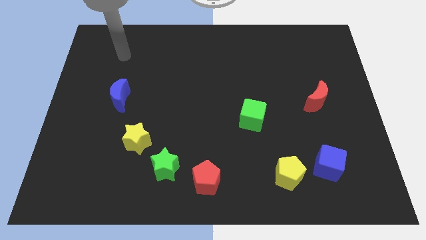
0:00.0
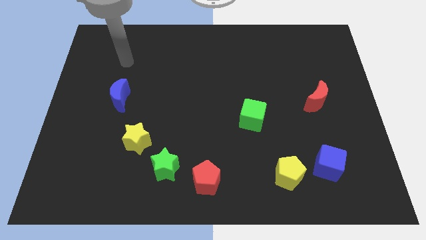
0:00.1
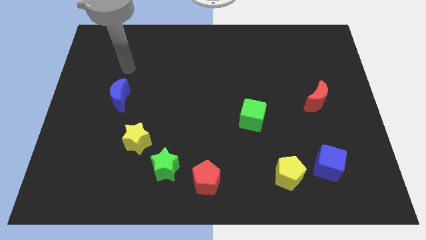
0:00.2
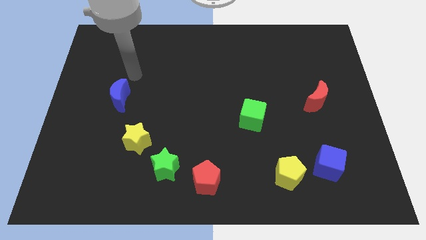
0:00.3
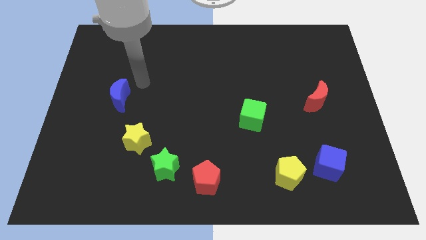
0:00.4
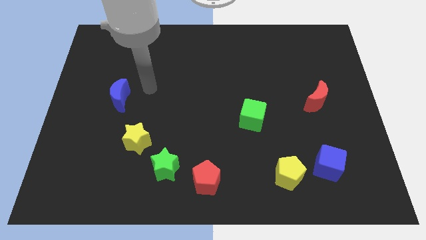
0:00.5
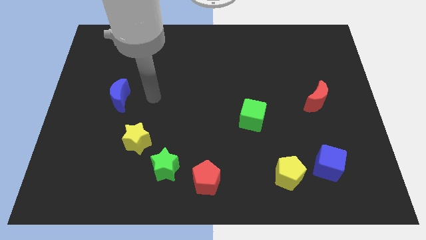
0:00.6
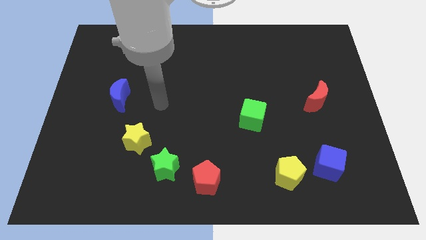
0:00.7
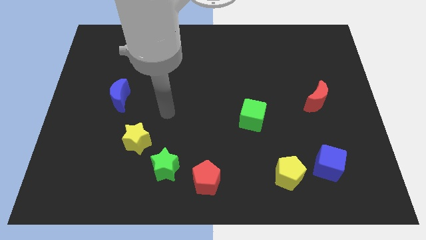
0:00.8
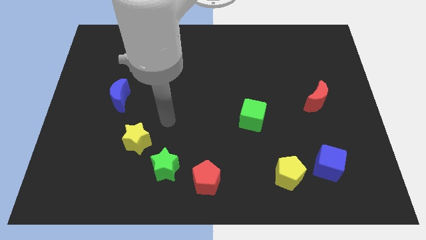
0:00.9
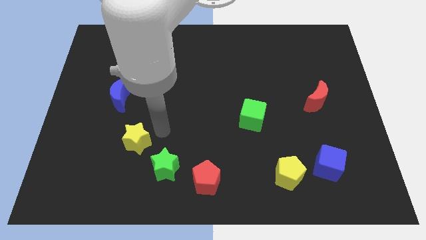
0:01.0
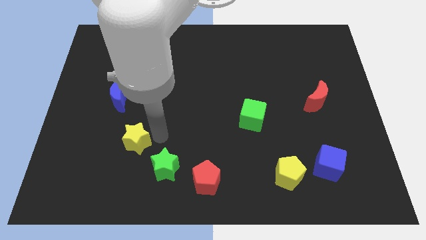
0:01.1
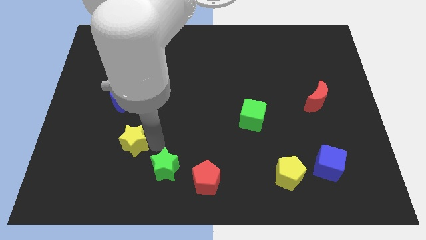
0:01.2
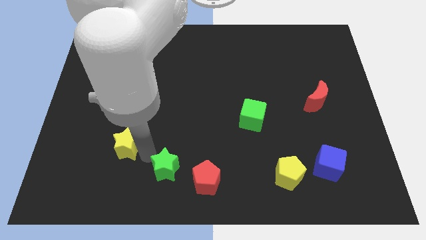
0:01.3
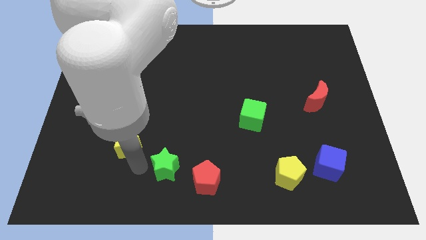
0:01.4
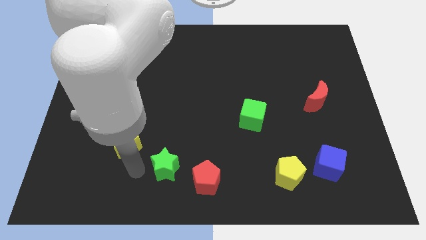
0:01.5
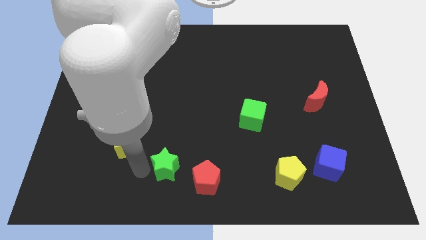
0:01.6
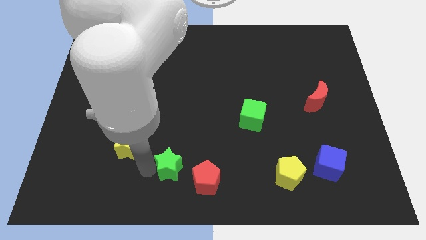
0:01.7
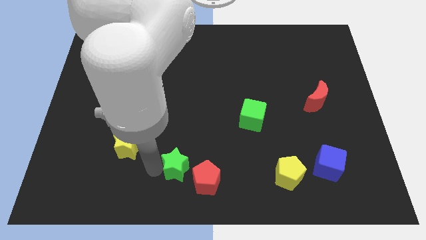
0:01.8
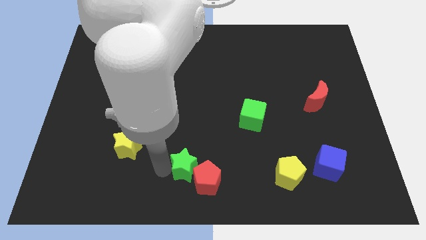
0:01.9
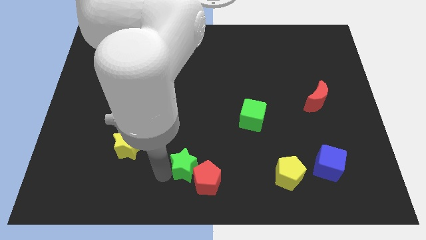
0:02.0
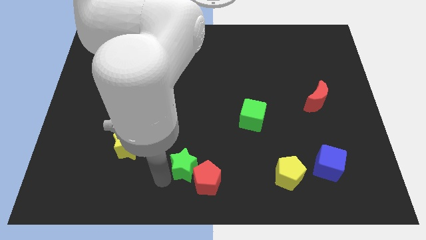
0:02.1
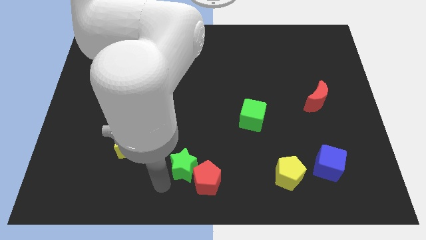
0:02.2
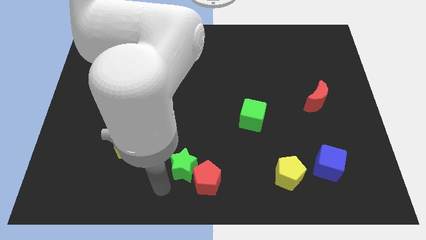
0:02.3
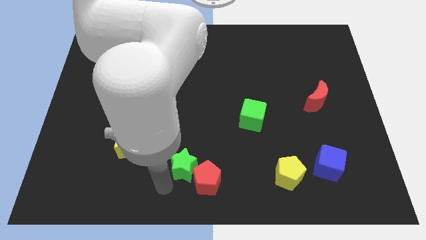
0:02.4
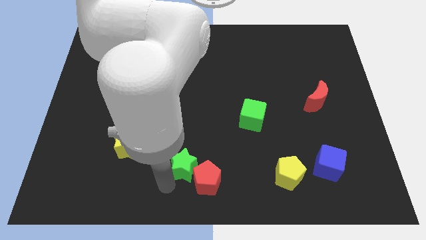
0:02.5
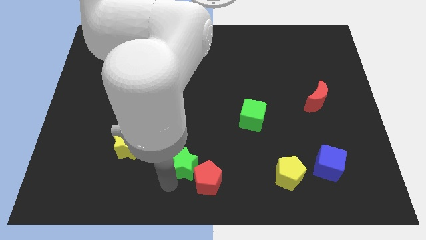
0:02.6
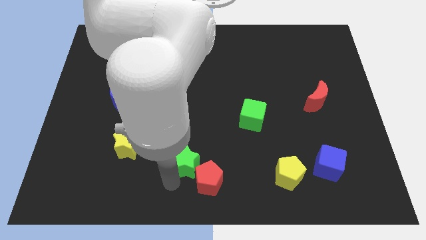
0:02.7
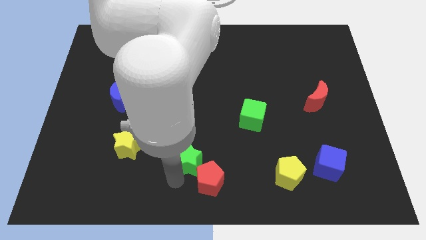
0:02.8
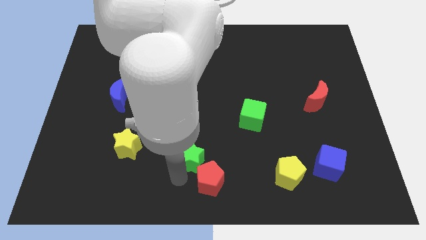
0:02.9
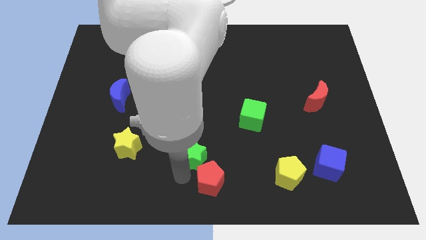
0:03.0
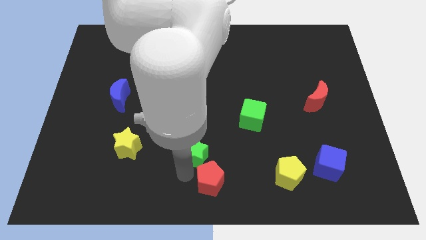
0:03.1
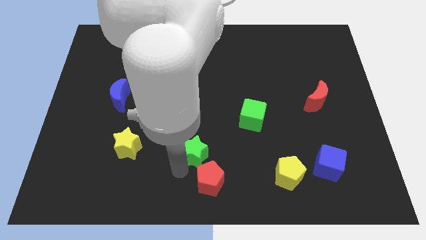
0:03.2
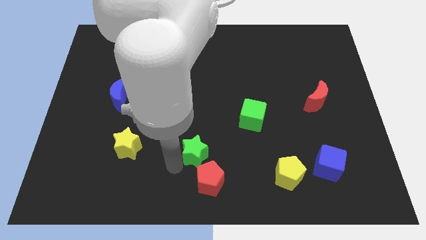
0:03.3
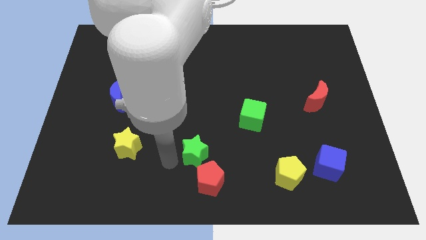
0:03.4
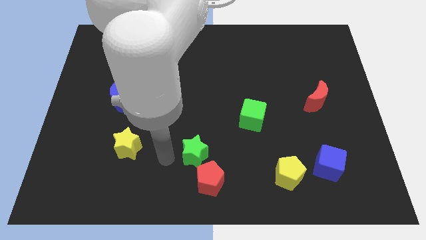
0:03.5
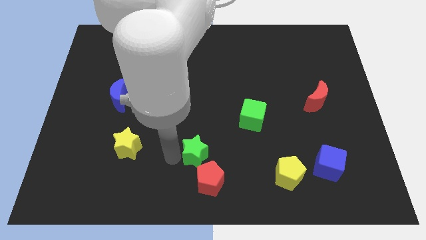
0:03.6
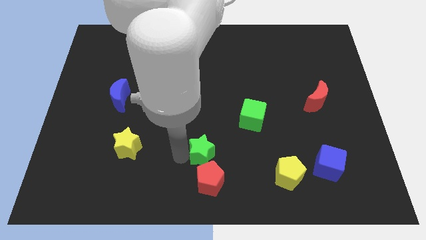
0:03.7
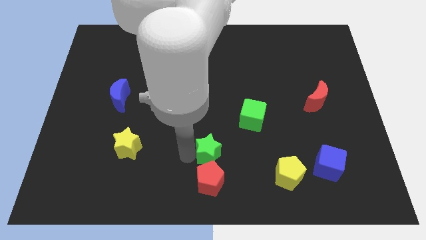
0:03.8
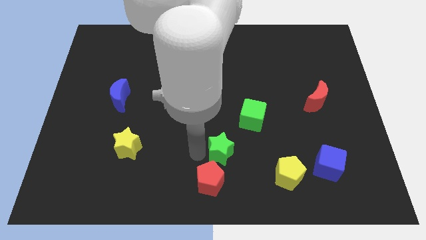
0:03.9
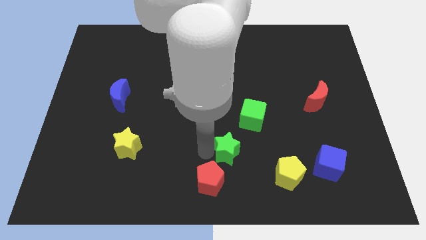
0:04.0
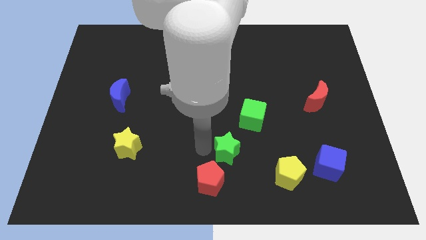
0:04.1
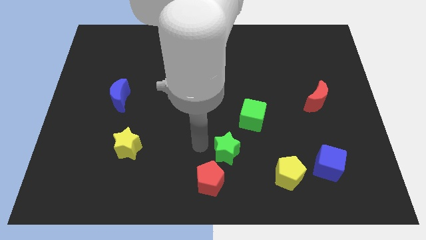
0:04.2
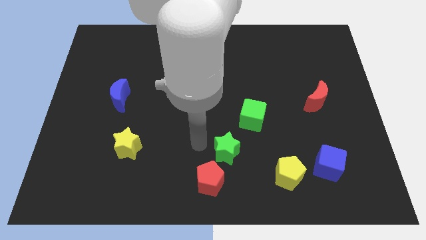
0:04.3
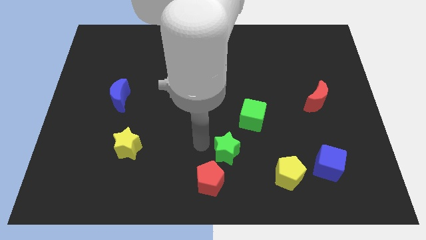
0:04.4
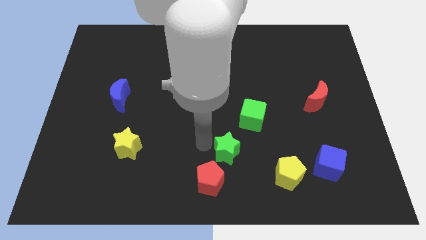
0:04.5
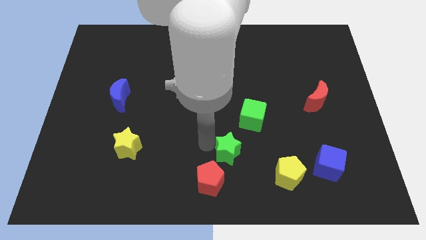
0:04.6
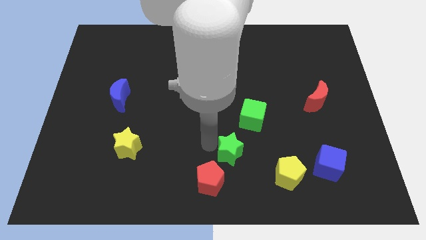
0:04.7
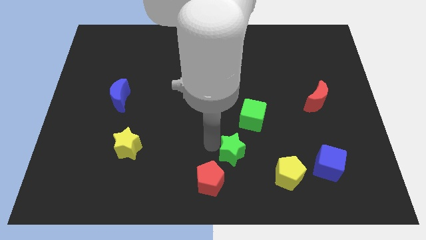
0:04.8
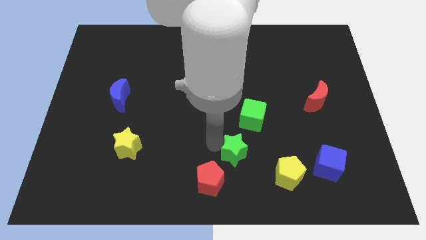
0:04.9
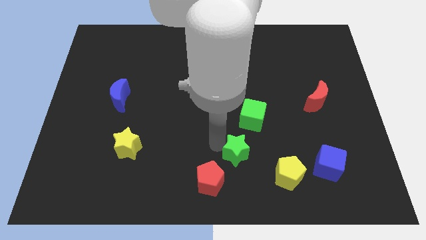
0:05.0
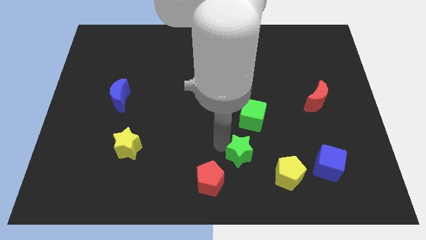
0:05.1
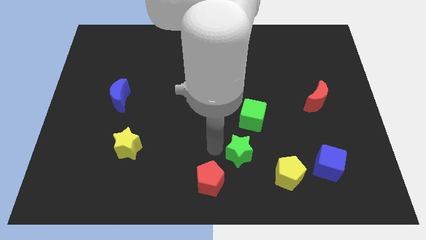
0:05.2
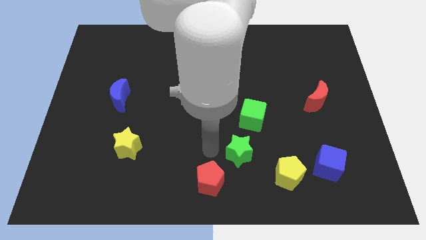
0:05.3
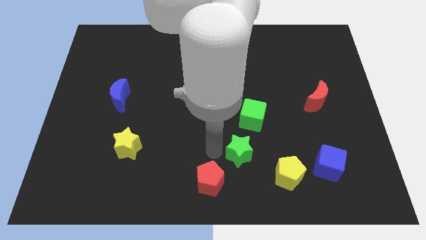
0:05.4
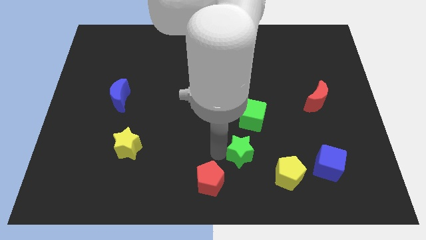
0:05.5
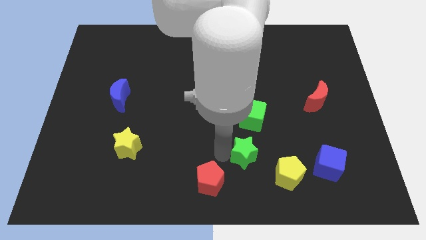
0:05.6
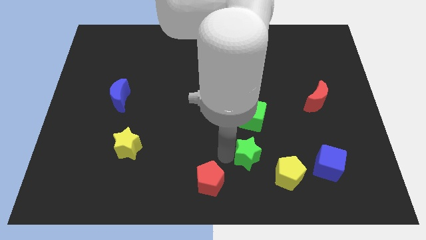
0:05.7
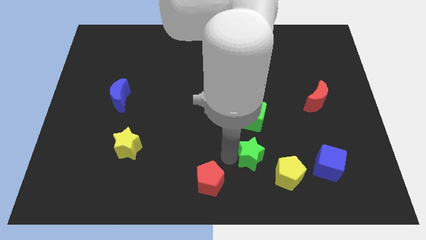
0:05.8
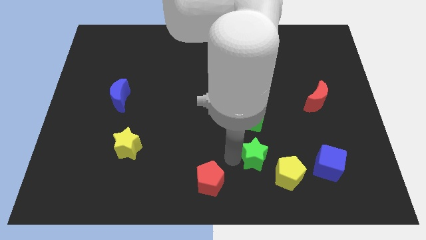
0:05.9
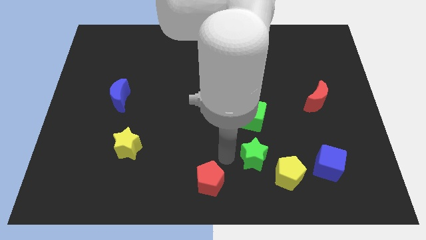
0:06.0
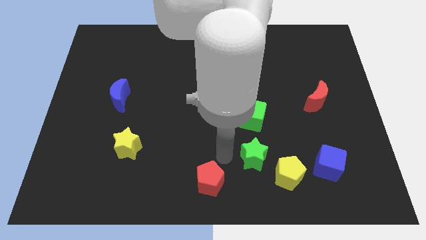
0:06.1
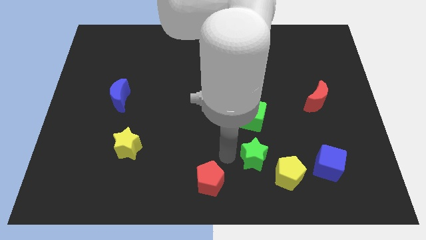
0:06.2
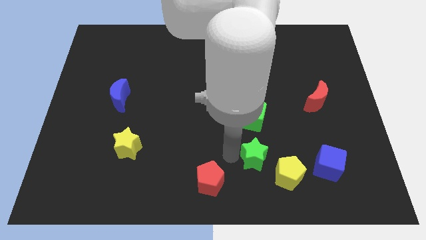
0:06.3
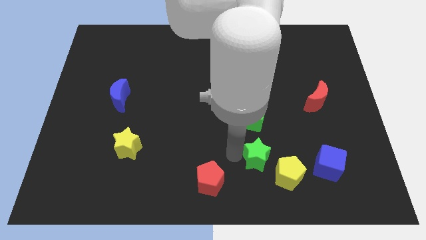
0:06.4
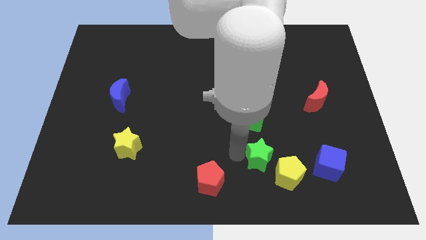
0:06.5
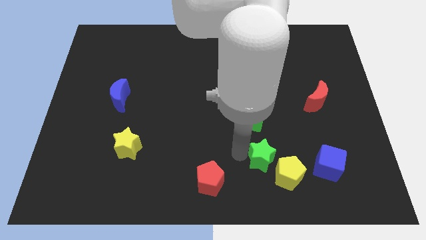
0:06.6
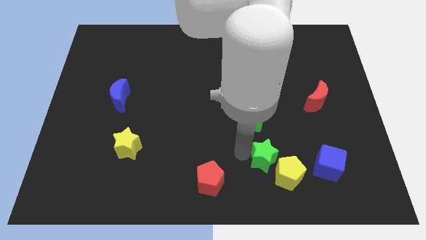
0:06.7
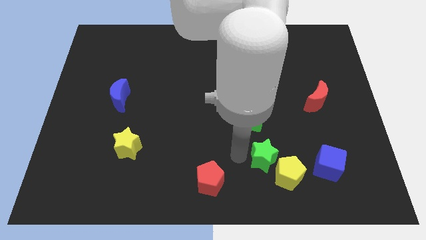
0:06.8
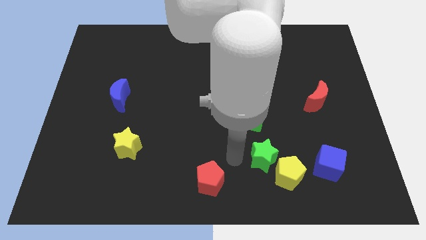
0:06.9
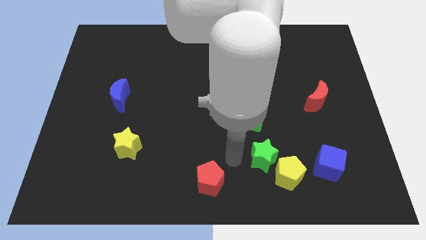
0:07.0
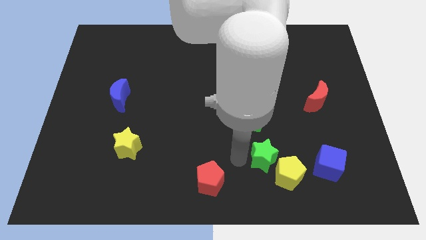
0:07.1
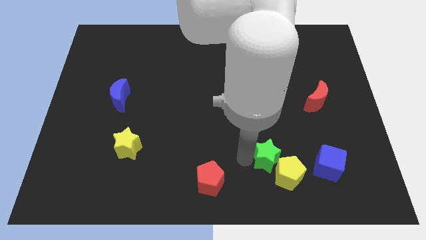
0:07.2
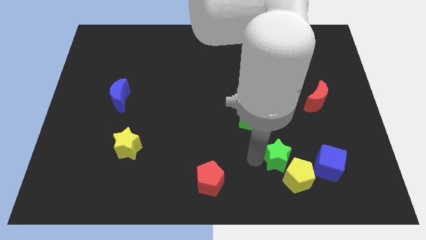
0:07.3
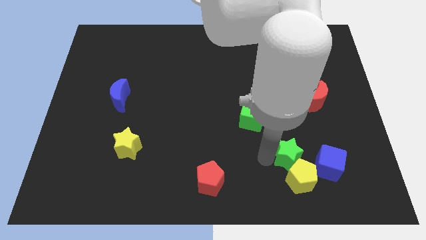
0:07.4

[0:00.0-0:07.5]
put the green star diagonally up and to the right of the yellow pentagon
